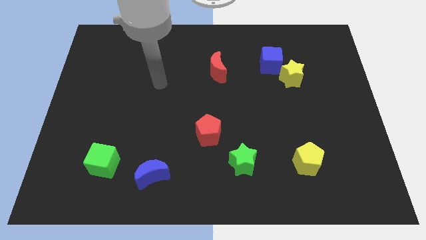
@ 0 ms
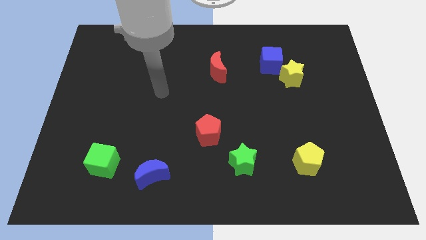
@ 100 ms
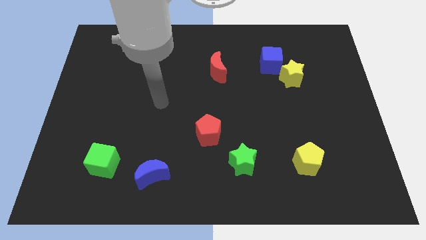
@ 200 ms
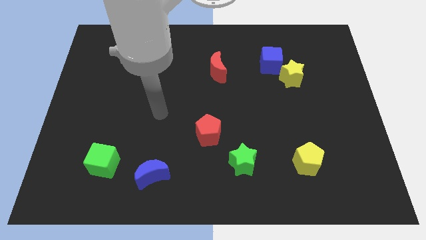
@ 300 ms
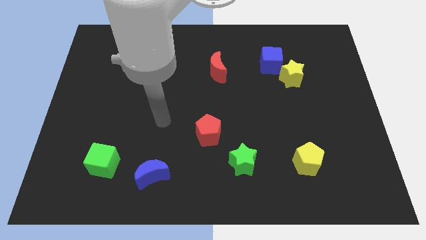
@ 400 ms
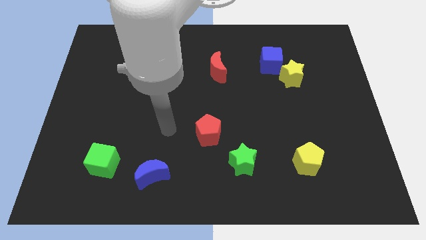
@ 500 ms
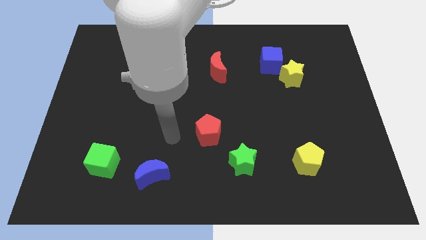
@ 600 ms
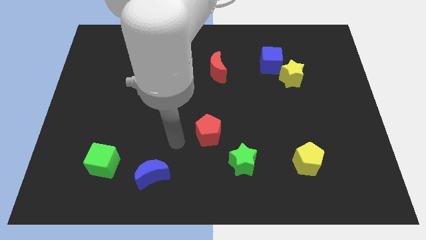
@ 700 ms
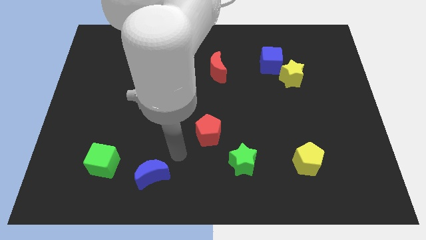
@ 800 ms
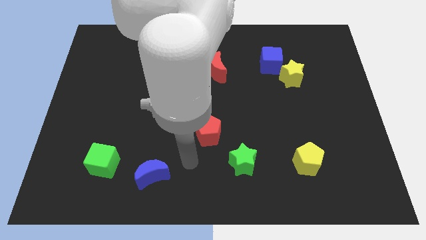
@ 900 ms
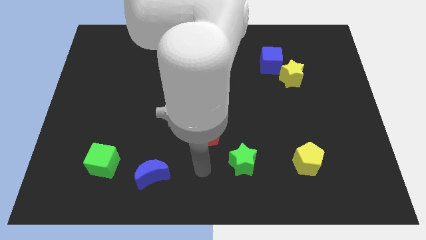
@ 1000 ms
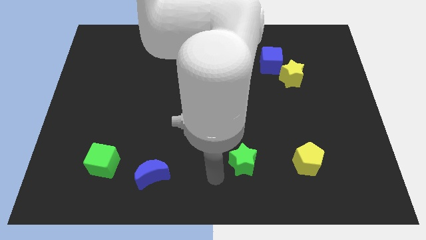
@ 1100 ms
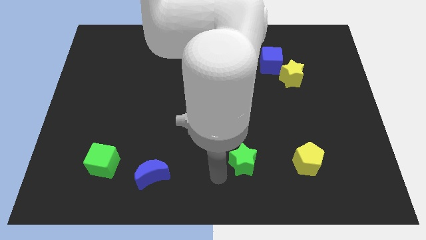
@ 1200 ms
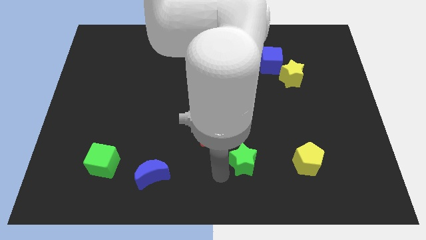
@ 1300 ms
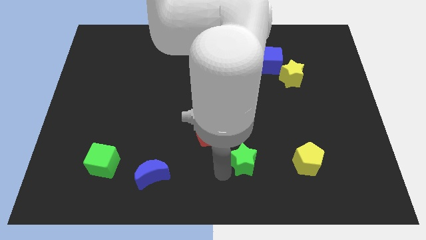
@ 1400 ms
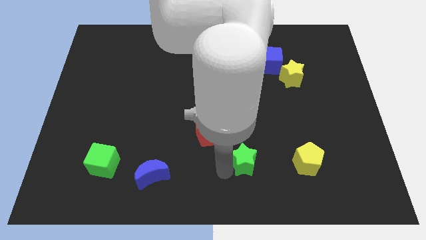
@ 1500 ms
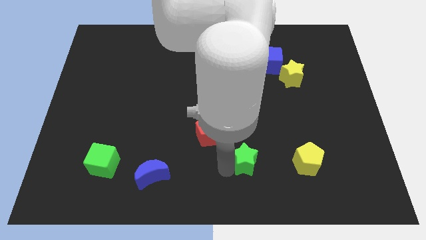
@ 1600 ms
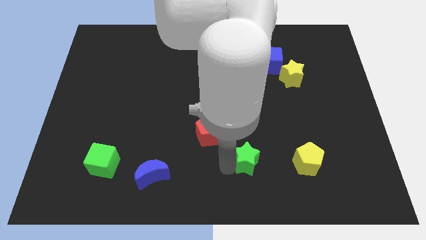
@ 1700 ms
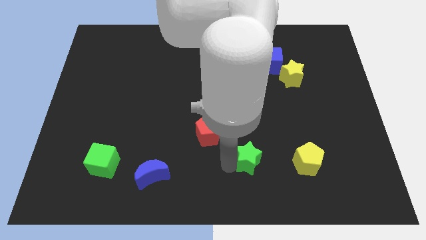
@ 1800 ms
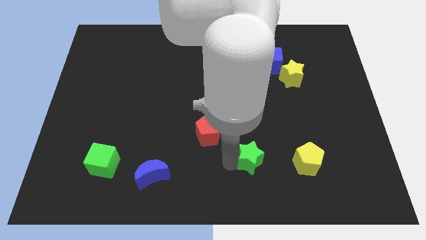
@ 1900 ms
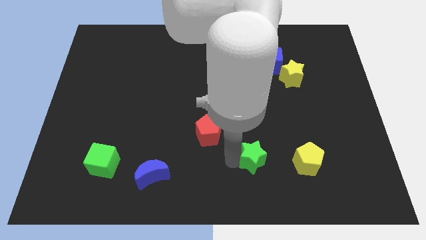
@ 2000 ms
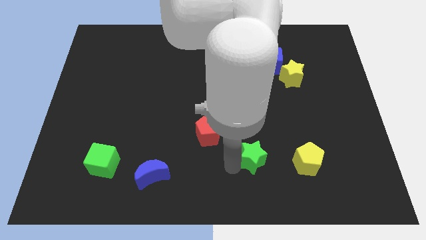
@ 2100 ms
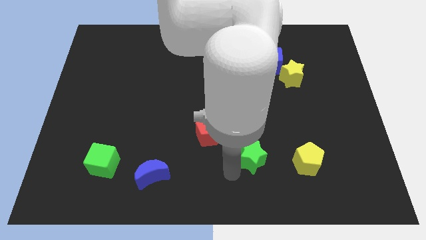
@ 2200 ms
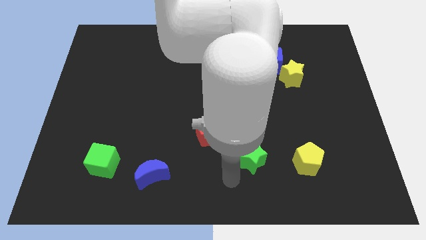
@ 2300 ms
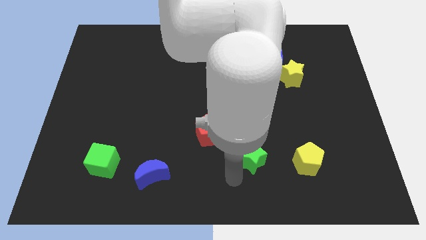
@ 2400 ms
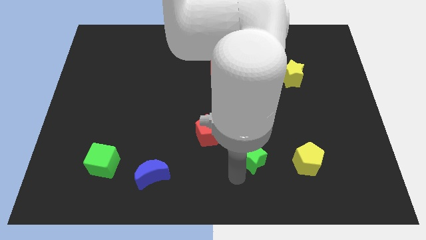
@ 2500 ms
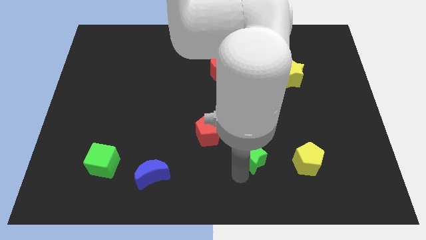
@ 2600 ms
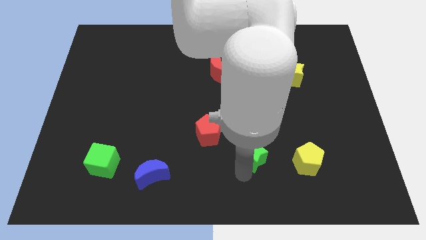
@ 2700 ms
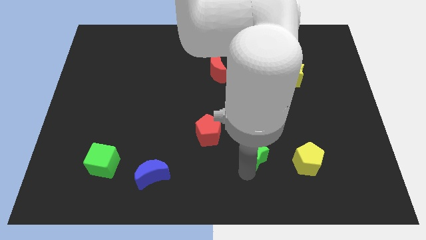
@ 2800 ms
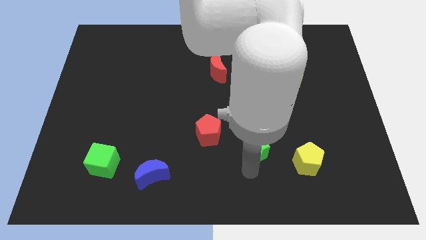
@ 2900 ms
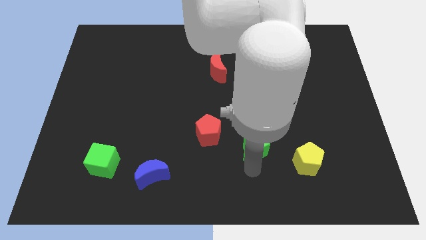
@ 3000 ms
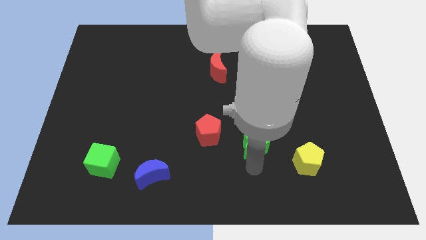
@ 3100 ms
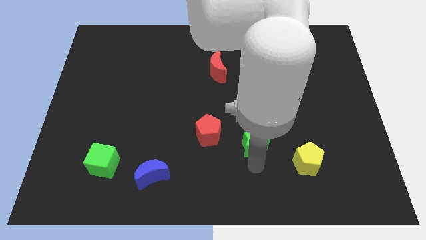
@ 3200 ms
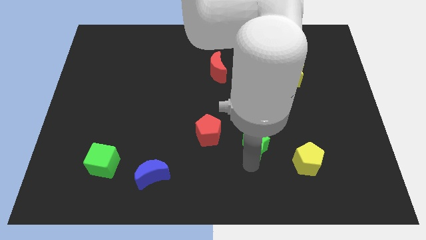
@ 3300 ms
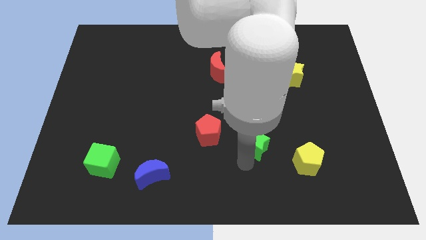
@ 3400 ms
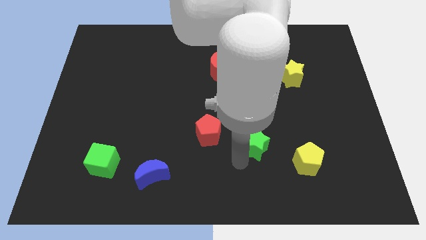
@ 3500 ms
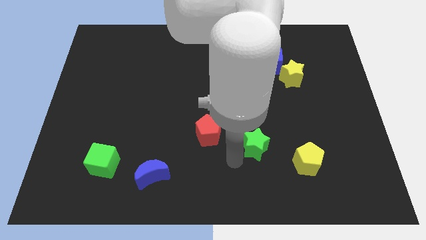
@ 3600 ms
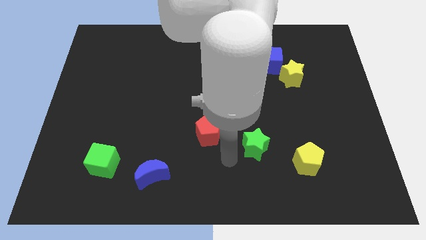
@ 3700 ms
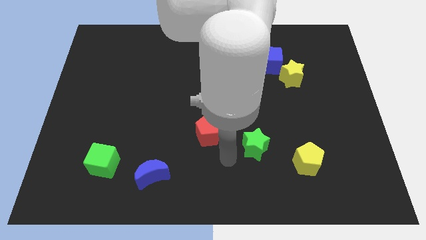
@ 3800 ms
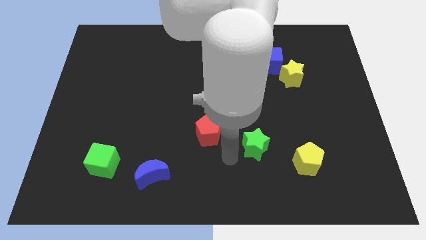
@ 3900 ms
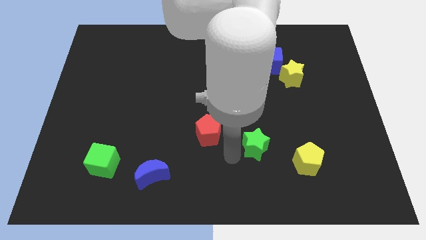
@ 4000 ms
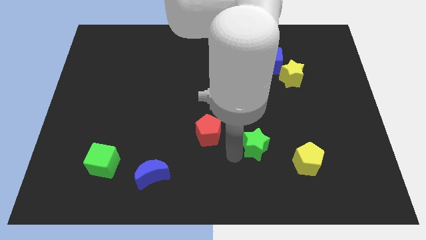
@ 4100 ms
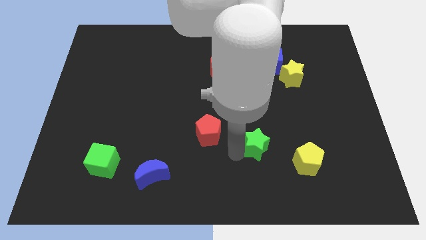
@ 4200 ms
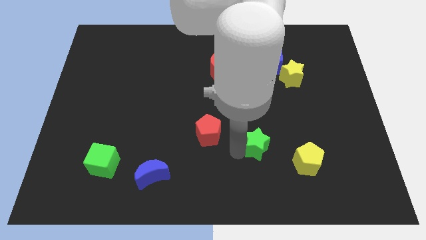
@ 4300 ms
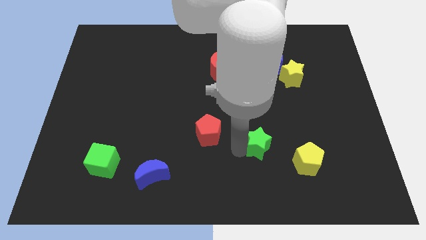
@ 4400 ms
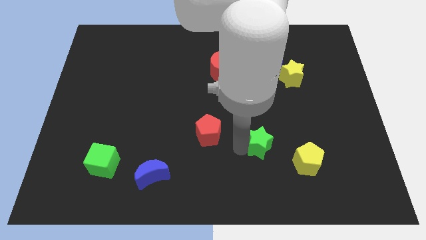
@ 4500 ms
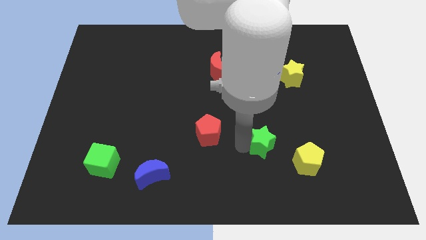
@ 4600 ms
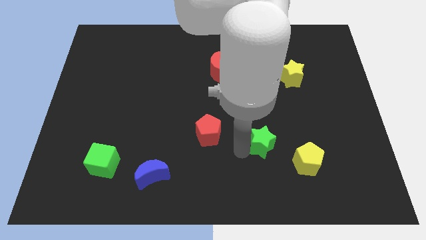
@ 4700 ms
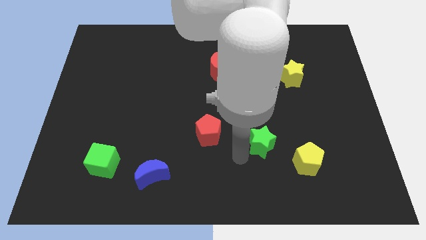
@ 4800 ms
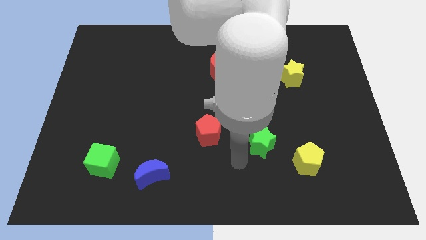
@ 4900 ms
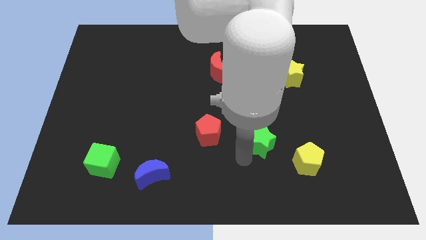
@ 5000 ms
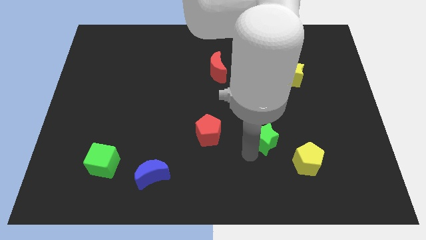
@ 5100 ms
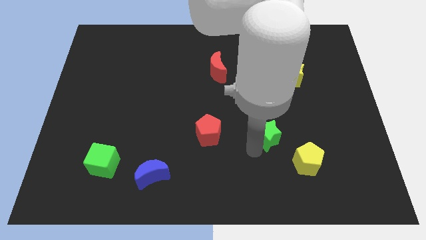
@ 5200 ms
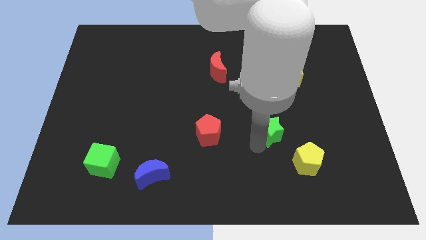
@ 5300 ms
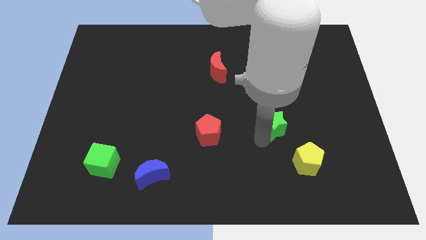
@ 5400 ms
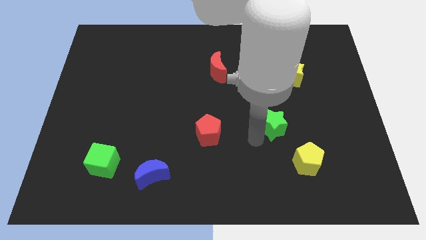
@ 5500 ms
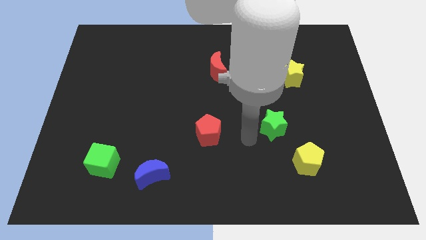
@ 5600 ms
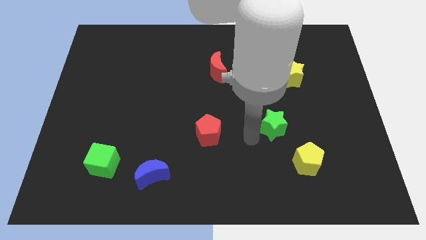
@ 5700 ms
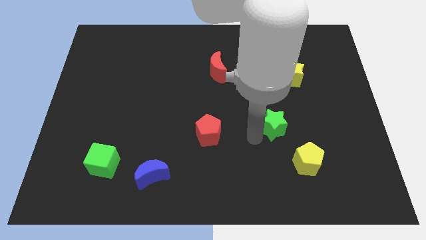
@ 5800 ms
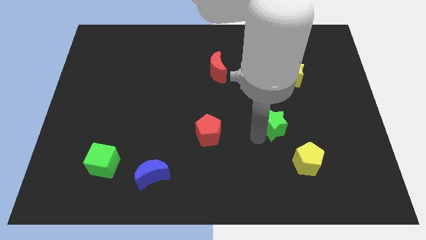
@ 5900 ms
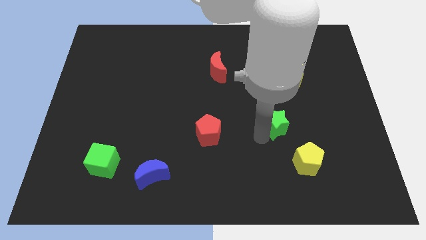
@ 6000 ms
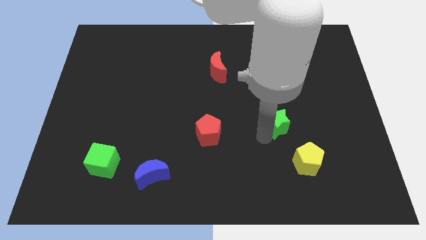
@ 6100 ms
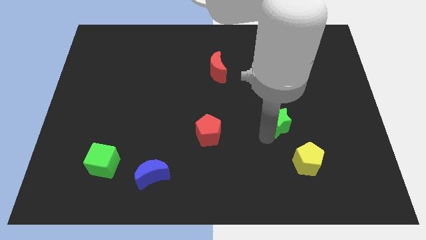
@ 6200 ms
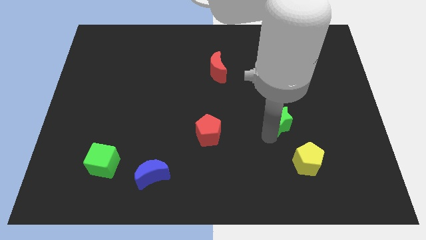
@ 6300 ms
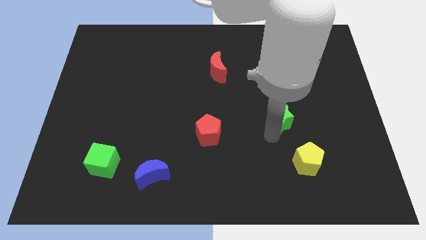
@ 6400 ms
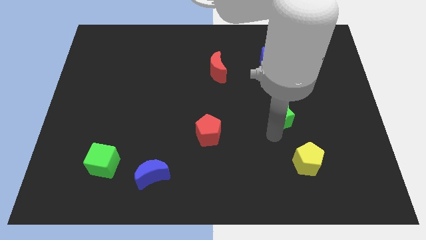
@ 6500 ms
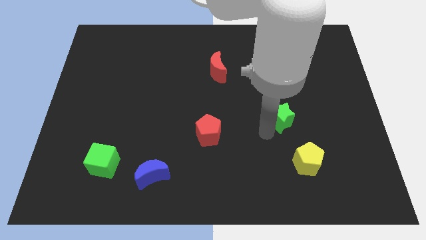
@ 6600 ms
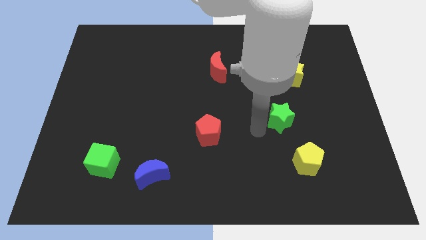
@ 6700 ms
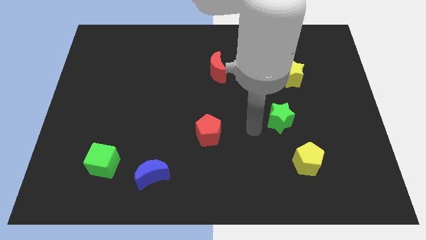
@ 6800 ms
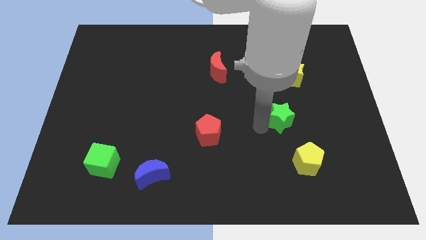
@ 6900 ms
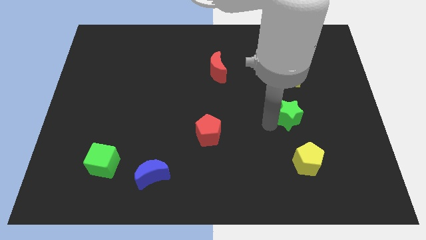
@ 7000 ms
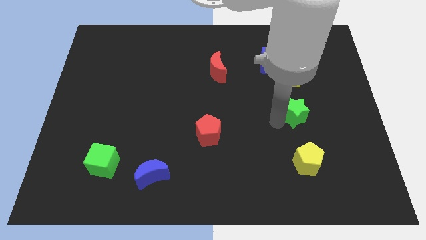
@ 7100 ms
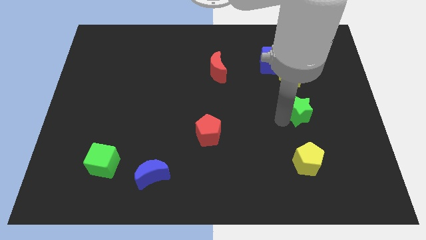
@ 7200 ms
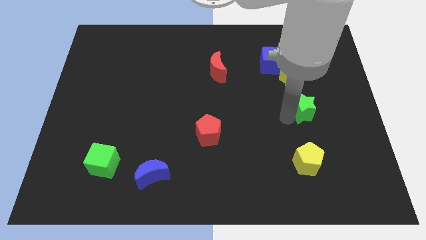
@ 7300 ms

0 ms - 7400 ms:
push the green star upwards and to the right

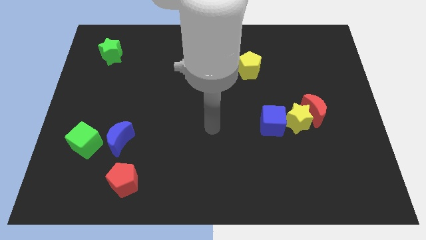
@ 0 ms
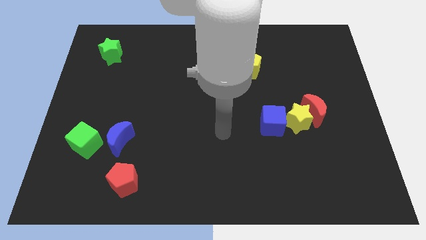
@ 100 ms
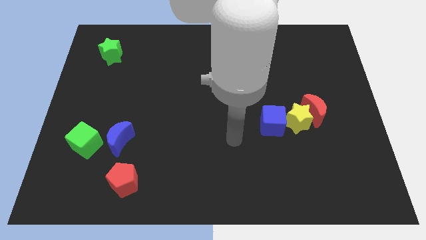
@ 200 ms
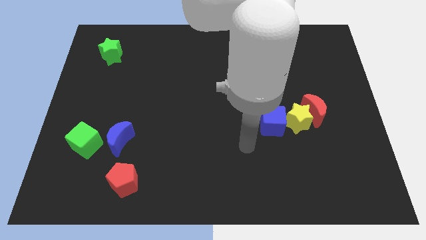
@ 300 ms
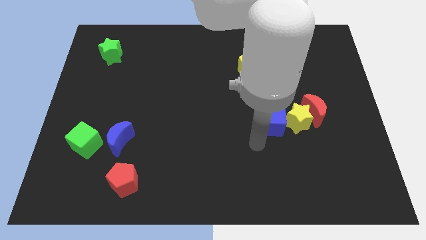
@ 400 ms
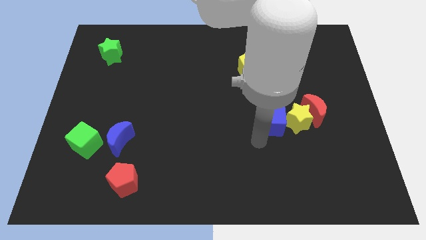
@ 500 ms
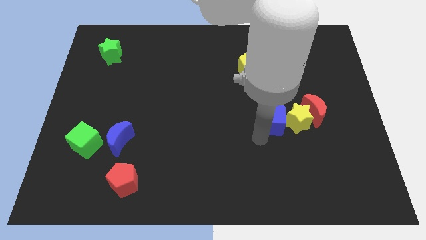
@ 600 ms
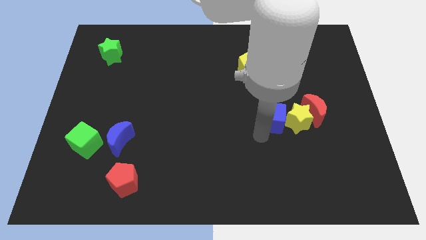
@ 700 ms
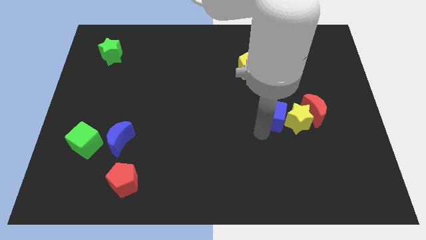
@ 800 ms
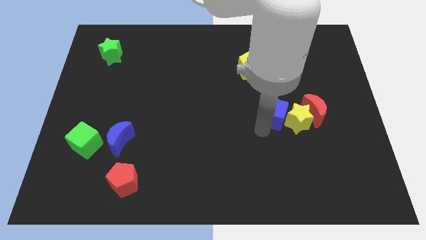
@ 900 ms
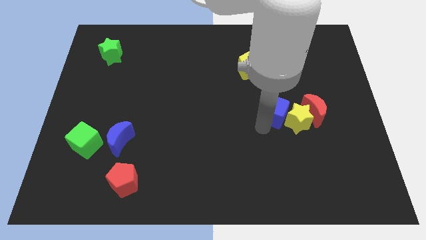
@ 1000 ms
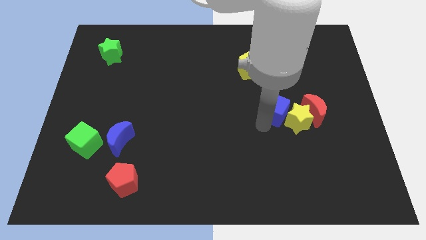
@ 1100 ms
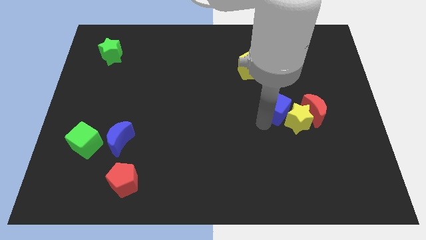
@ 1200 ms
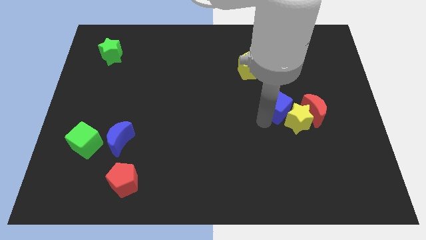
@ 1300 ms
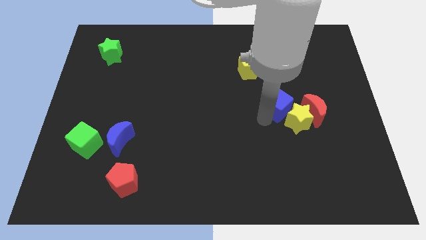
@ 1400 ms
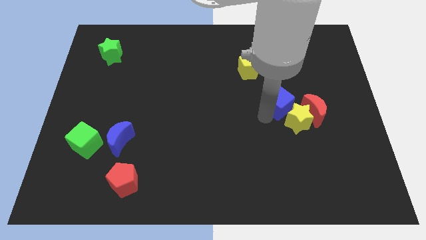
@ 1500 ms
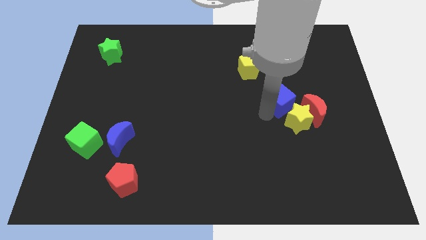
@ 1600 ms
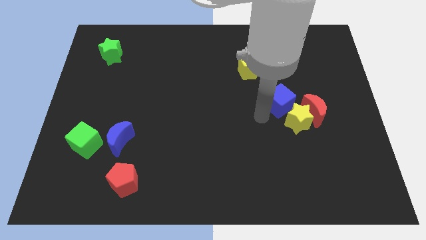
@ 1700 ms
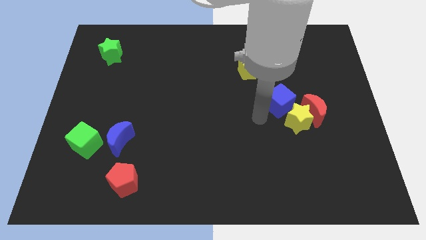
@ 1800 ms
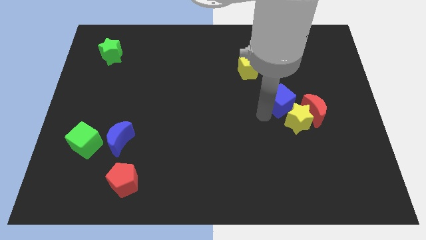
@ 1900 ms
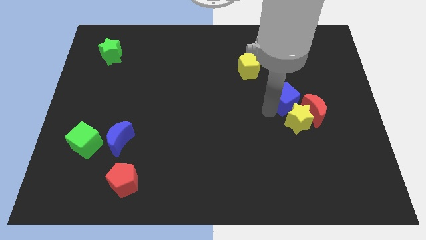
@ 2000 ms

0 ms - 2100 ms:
slightly move the blue cube diagonally upwards and right
